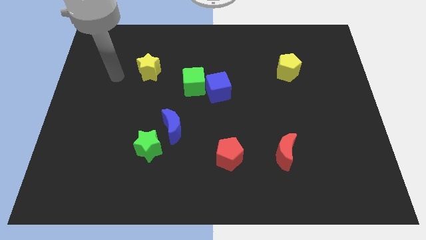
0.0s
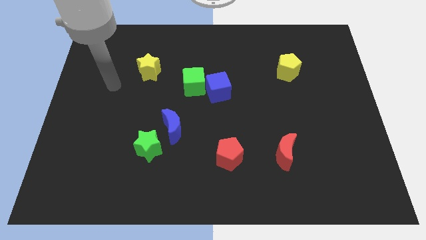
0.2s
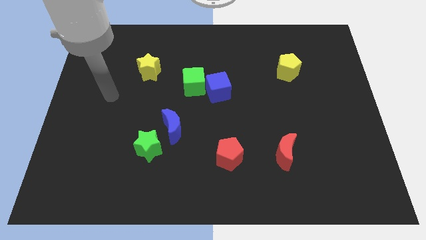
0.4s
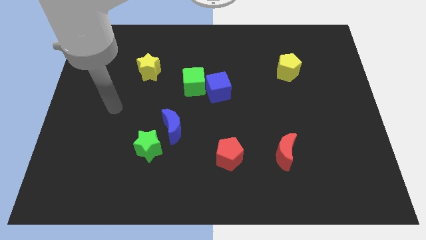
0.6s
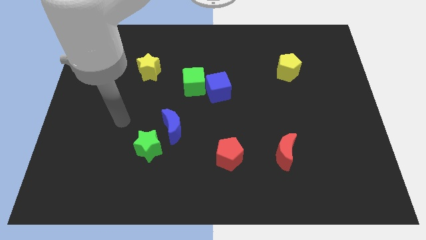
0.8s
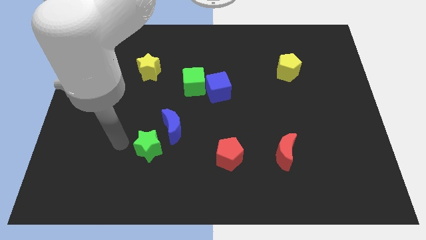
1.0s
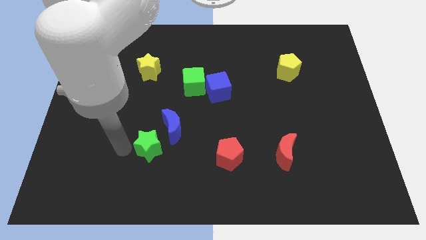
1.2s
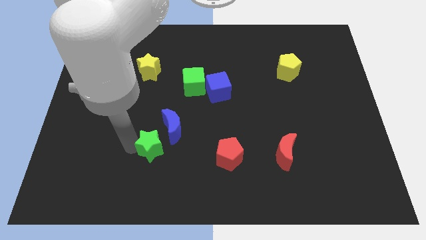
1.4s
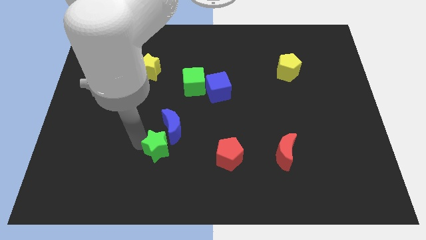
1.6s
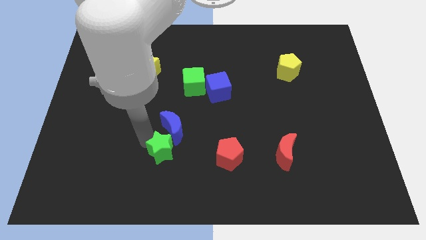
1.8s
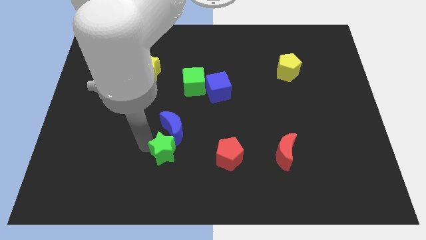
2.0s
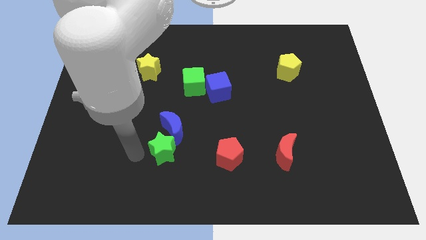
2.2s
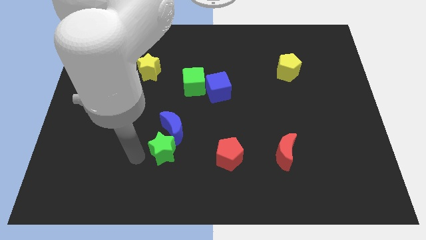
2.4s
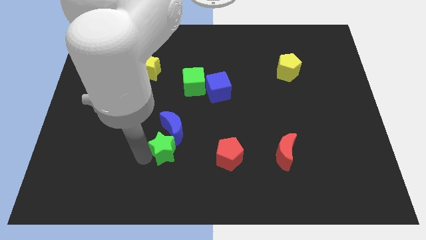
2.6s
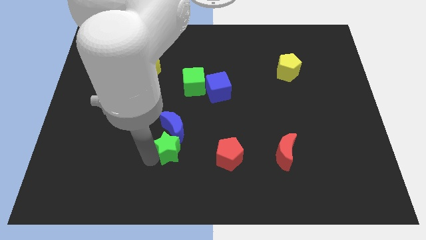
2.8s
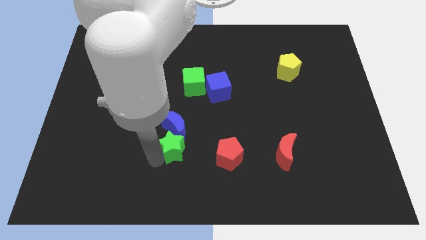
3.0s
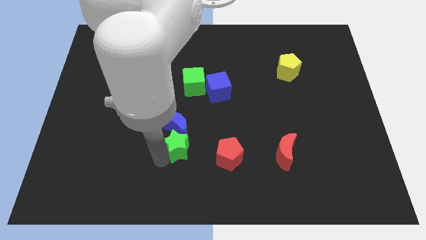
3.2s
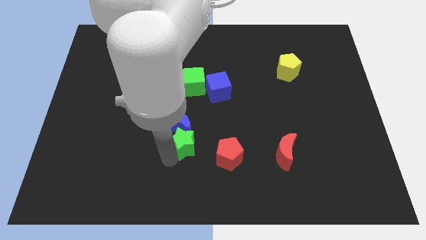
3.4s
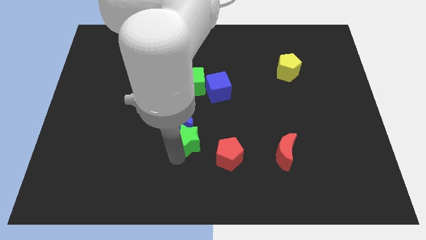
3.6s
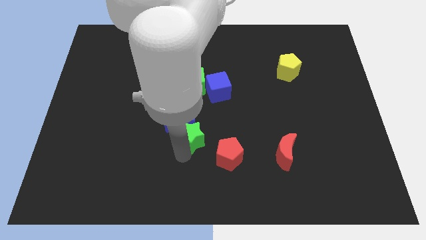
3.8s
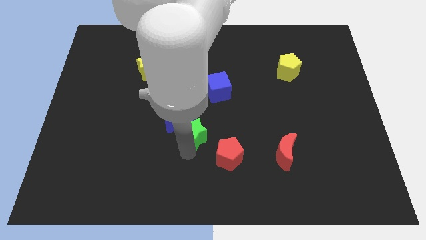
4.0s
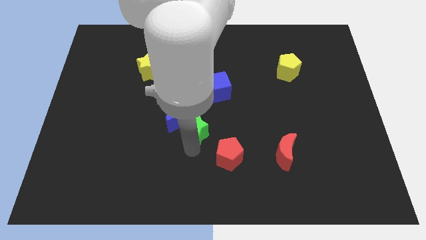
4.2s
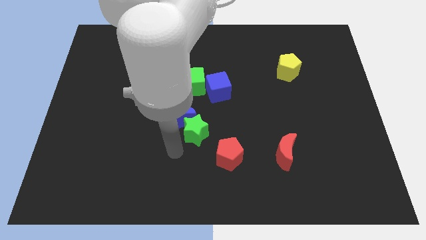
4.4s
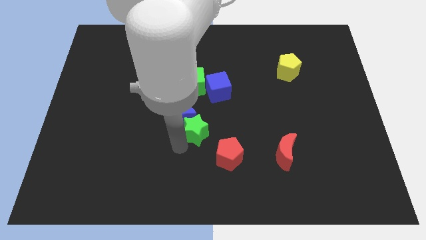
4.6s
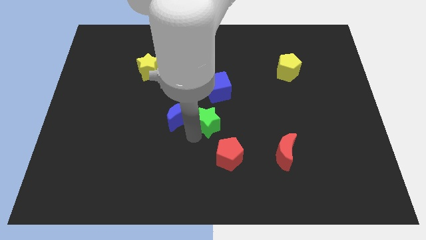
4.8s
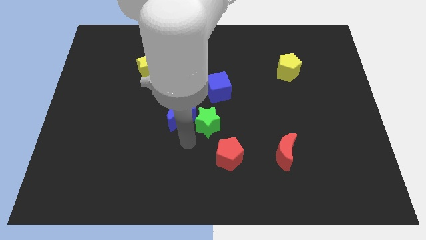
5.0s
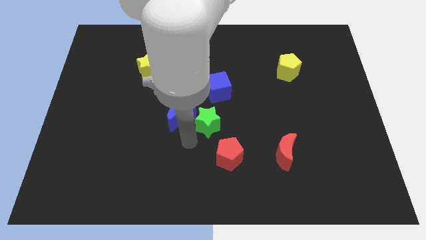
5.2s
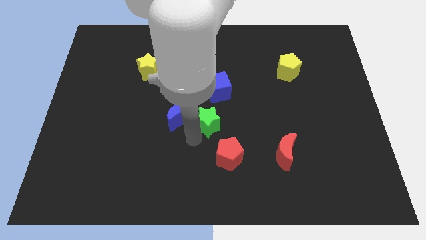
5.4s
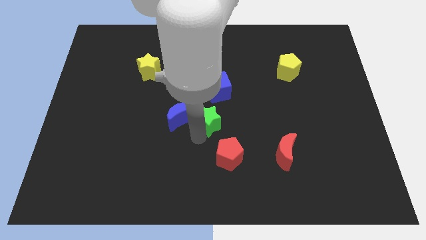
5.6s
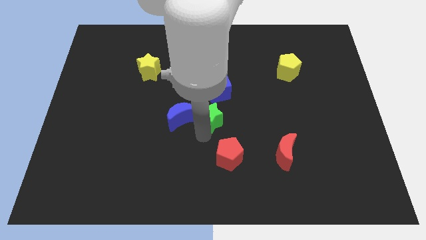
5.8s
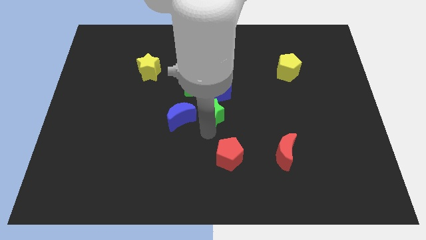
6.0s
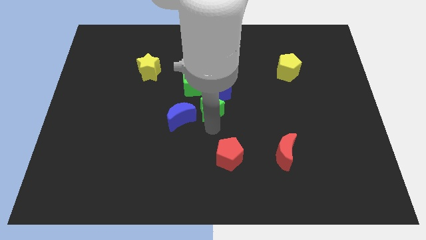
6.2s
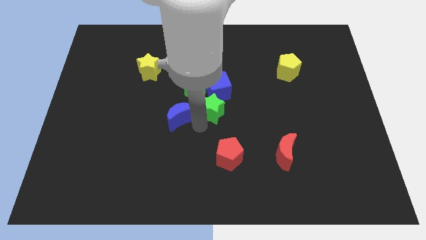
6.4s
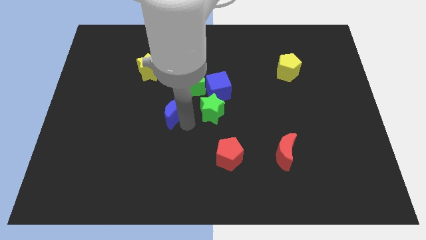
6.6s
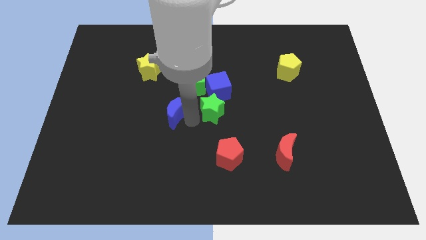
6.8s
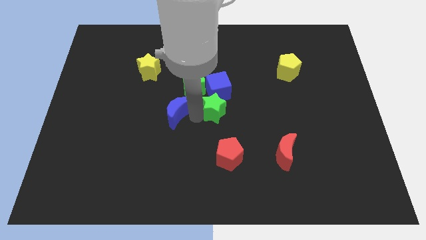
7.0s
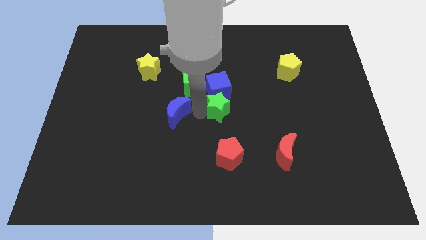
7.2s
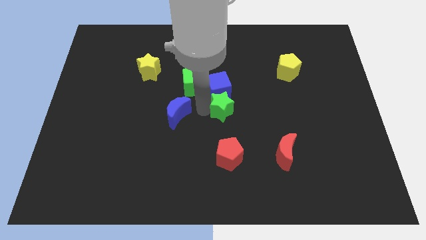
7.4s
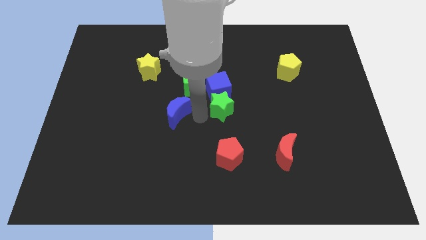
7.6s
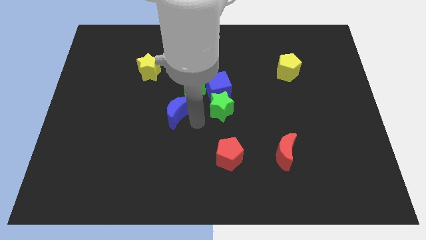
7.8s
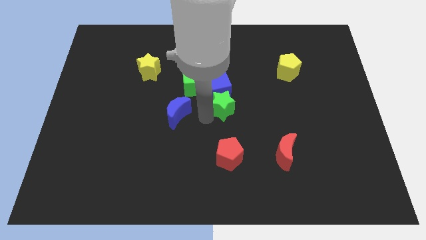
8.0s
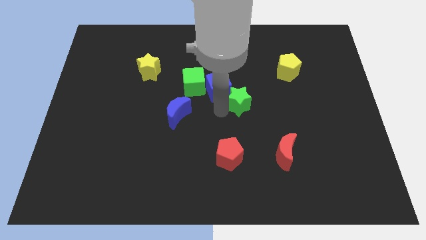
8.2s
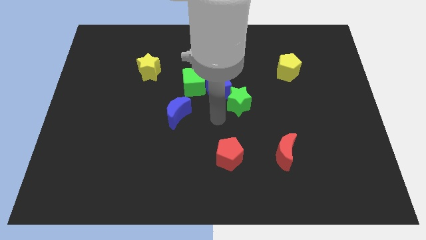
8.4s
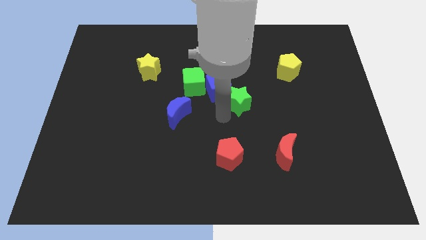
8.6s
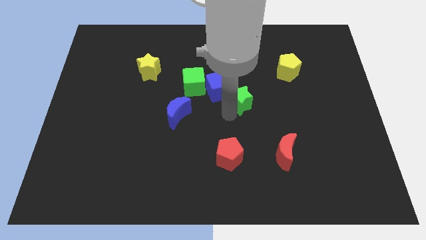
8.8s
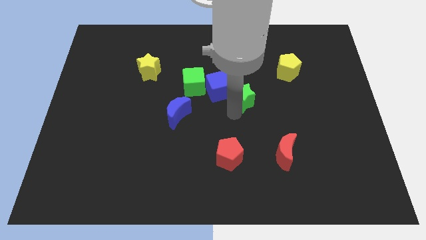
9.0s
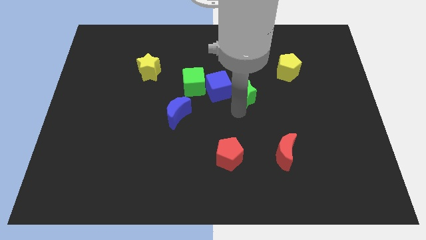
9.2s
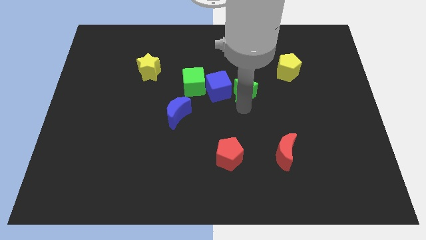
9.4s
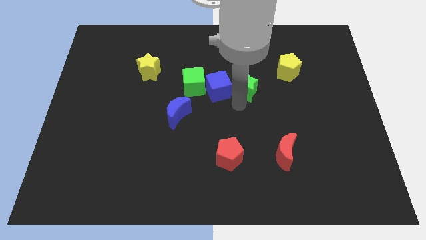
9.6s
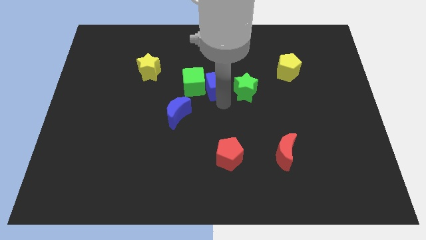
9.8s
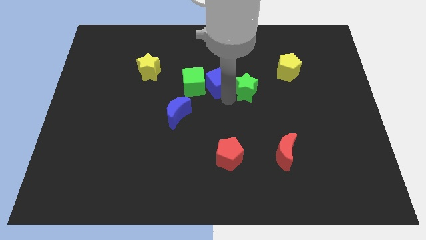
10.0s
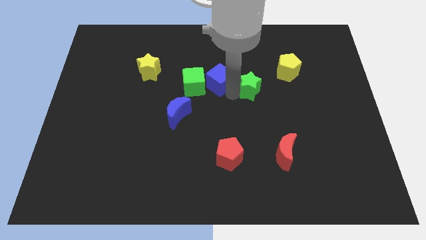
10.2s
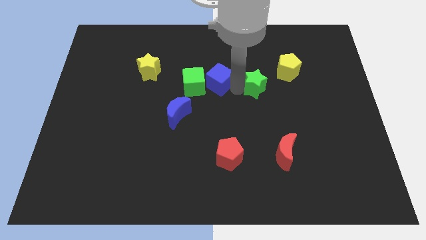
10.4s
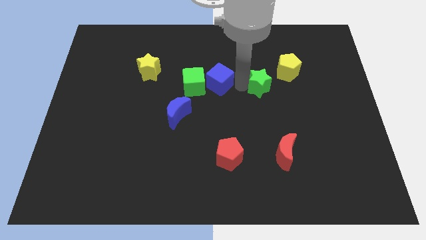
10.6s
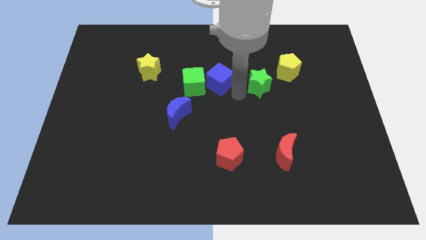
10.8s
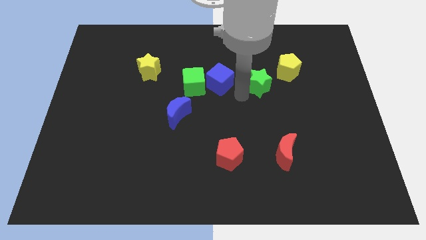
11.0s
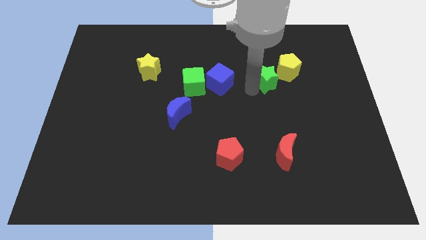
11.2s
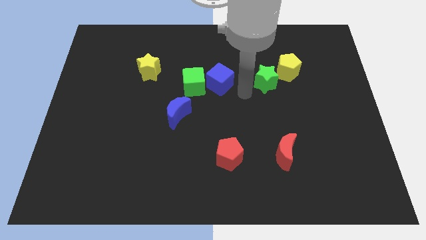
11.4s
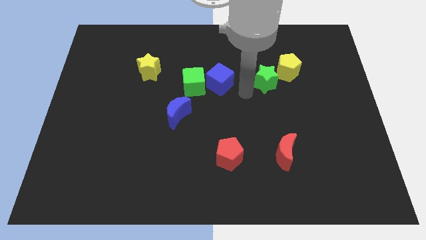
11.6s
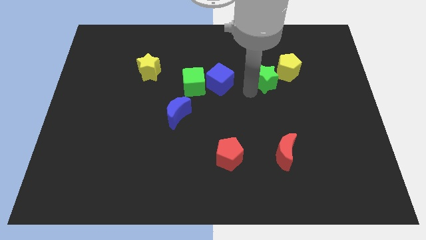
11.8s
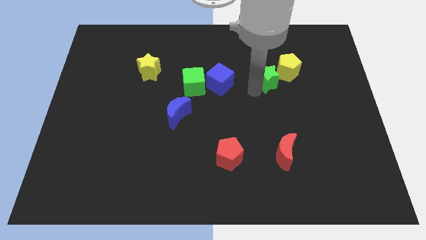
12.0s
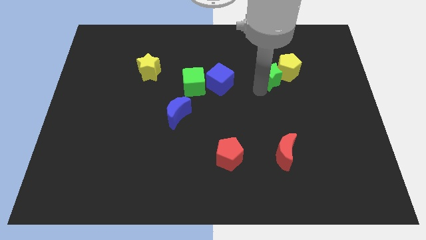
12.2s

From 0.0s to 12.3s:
put the green star next to the yellow pentagon

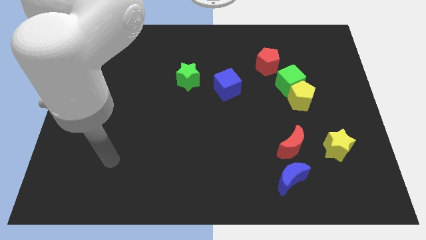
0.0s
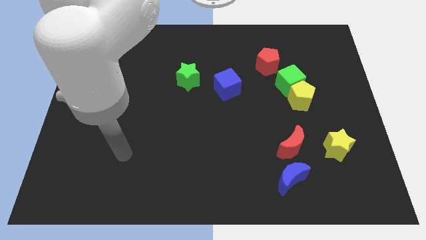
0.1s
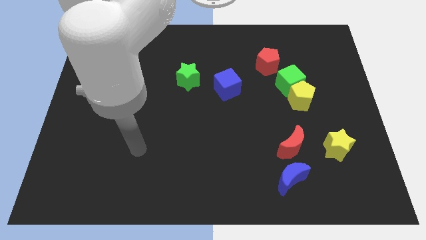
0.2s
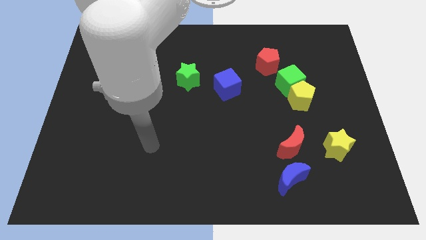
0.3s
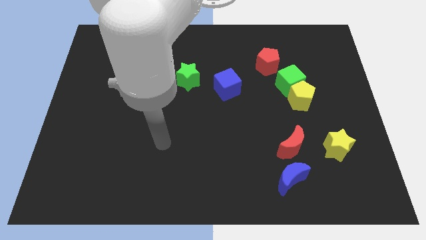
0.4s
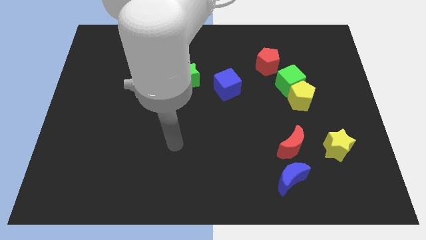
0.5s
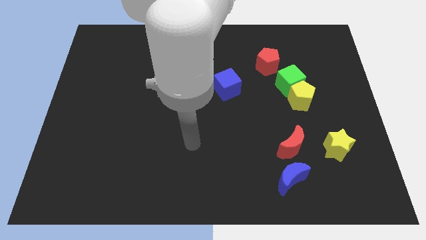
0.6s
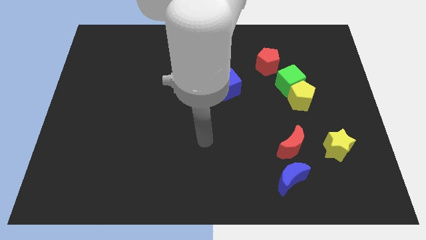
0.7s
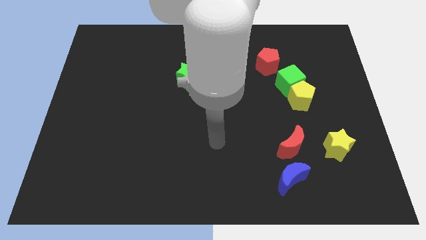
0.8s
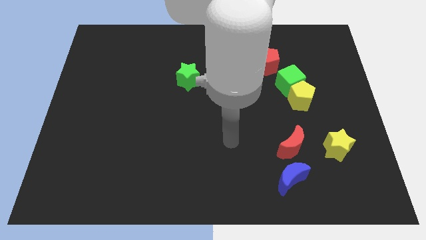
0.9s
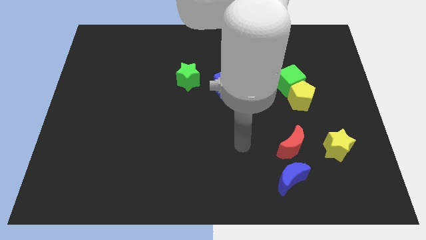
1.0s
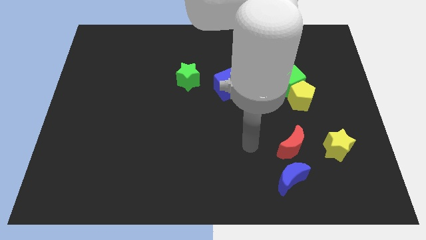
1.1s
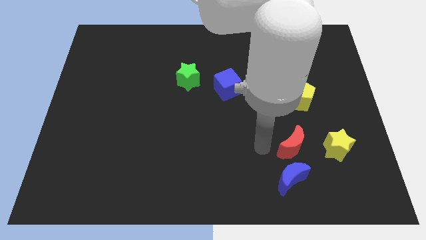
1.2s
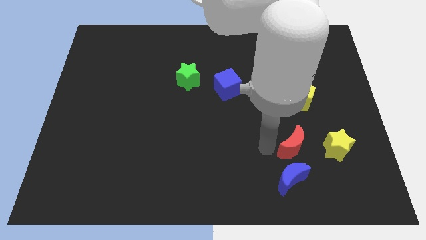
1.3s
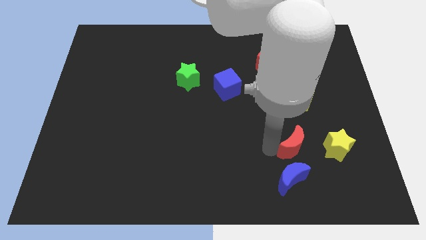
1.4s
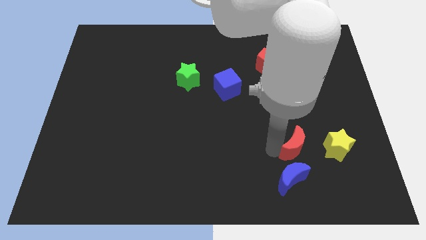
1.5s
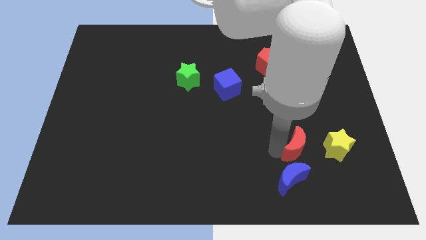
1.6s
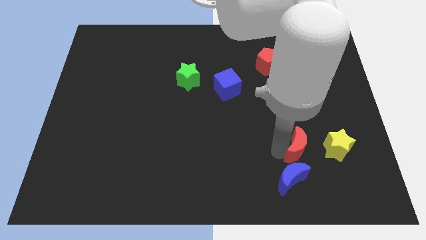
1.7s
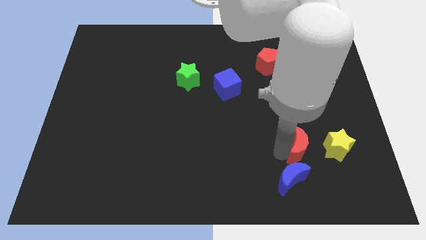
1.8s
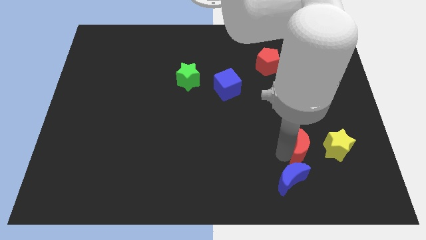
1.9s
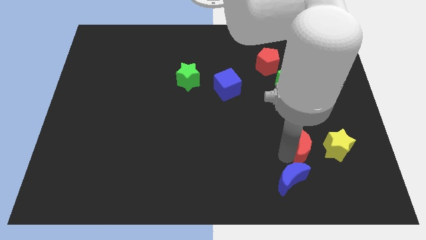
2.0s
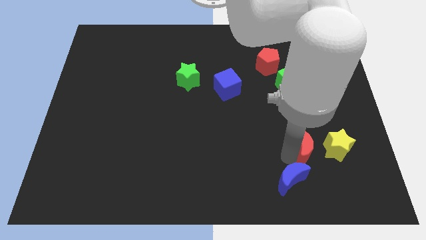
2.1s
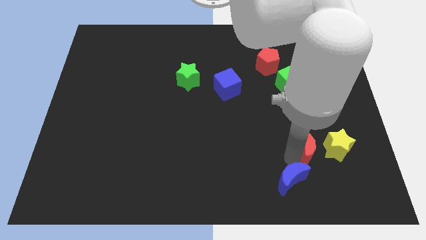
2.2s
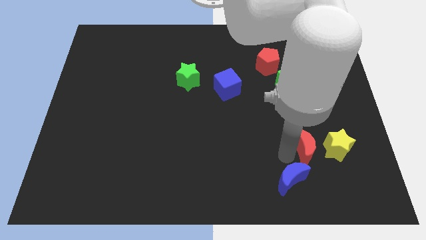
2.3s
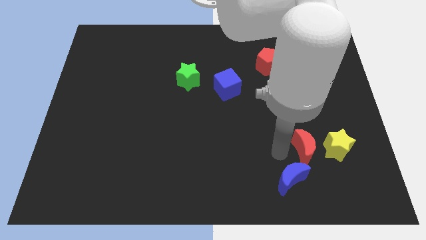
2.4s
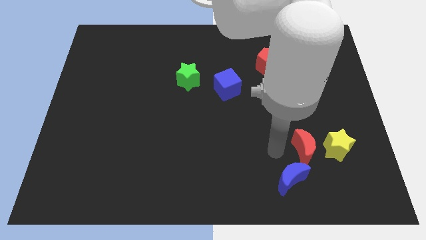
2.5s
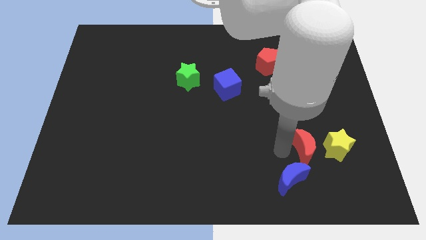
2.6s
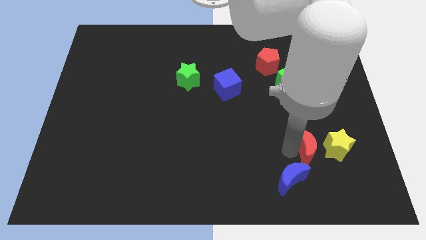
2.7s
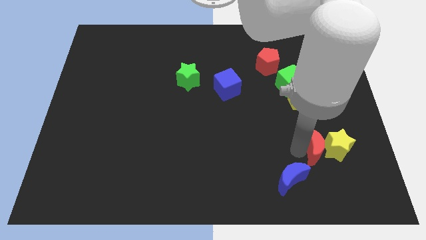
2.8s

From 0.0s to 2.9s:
put the red moon to the yellow star
